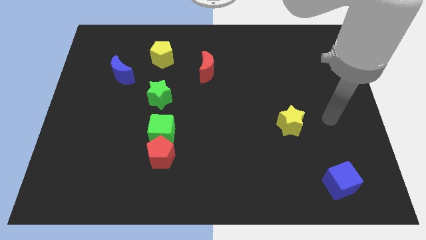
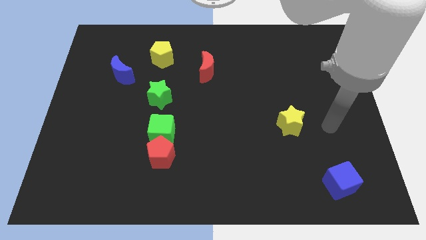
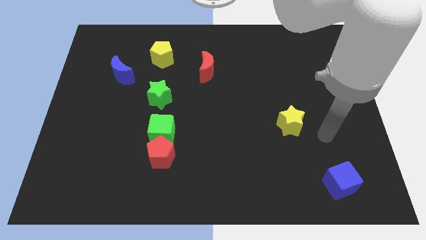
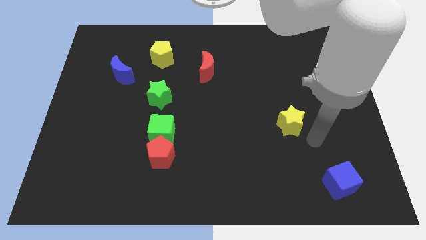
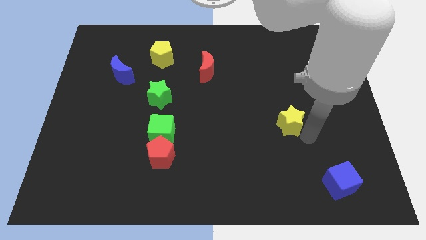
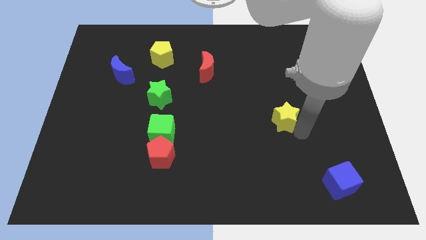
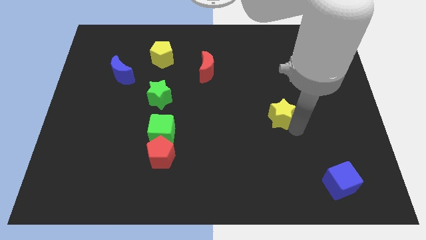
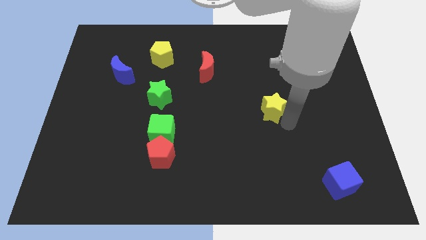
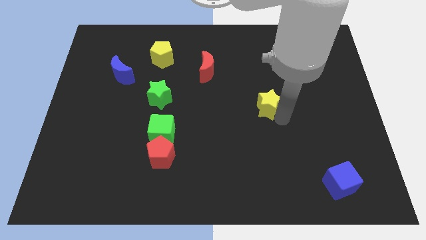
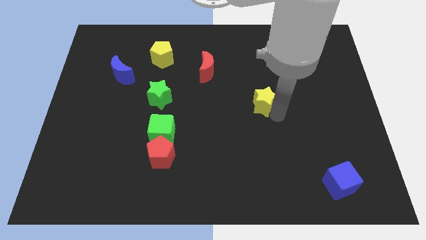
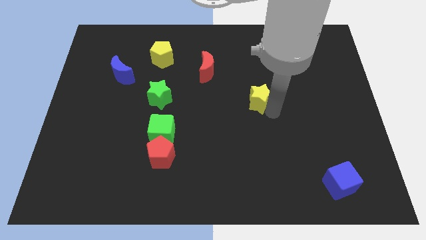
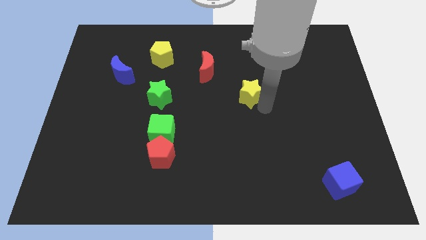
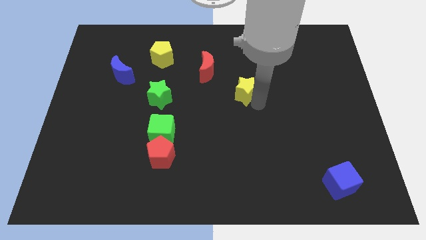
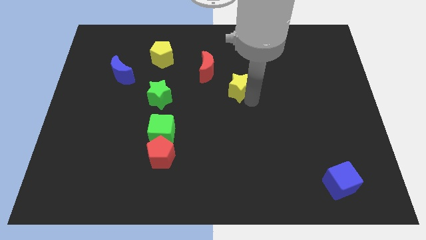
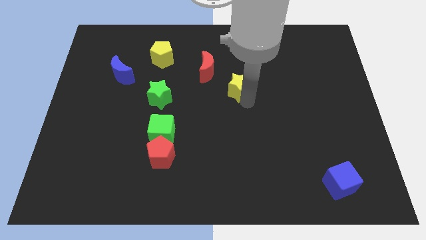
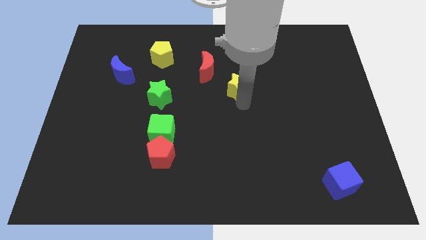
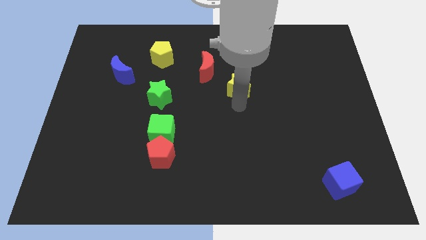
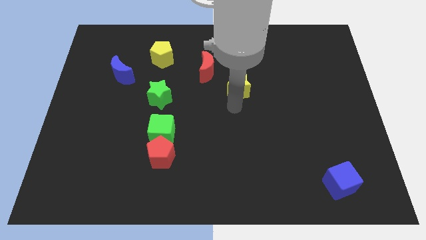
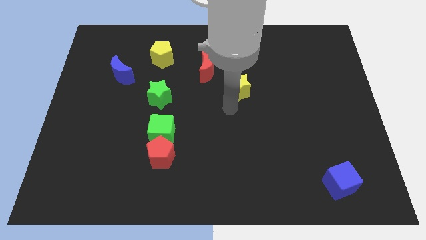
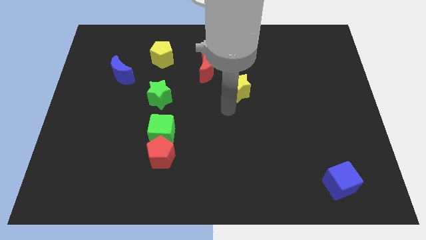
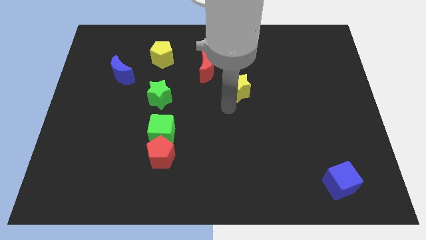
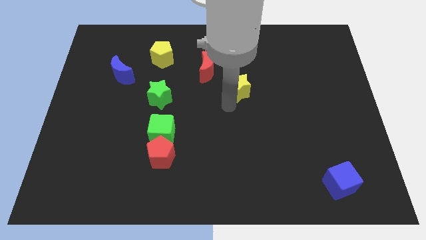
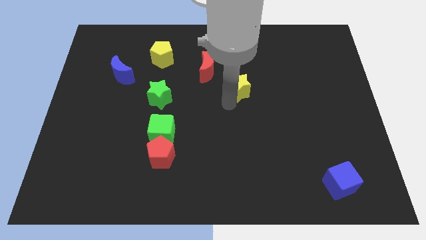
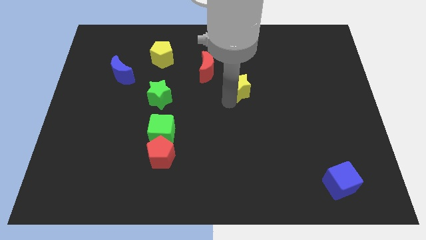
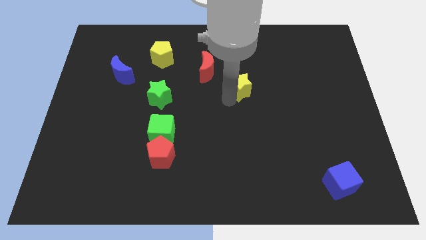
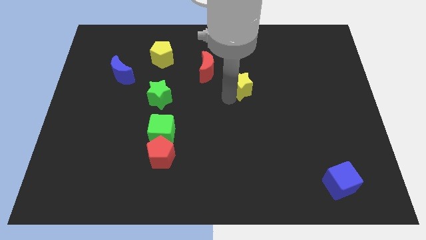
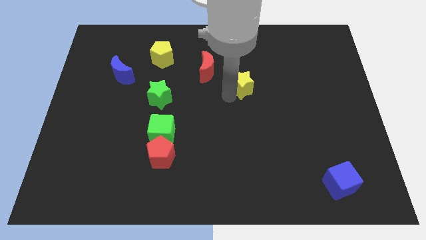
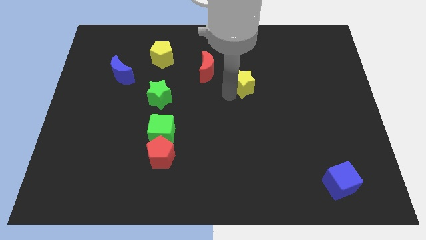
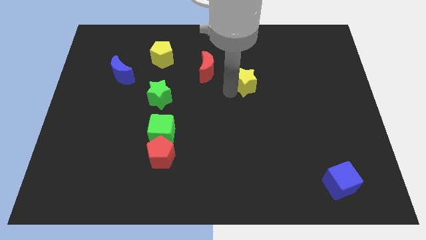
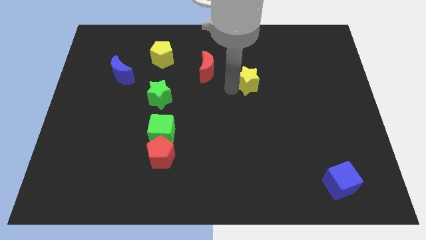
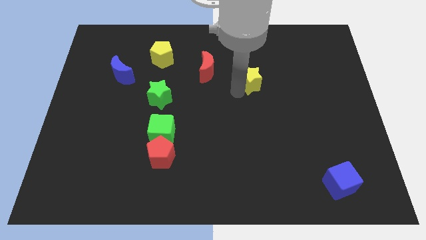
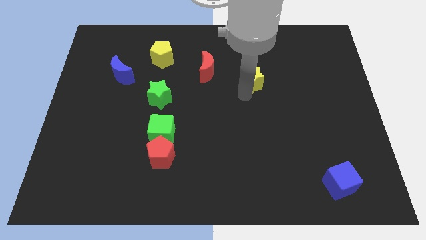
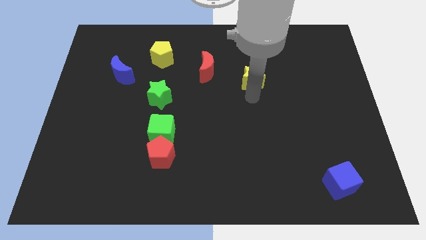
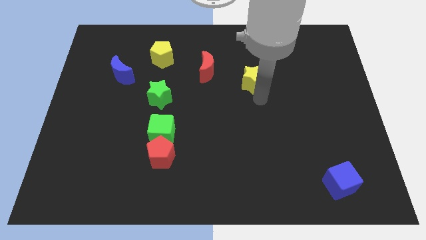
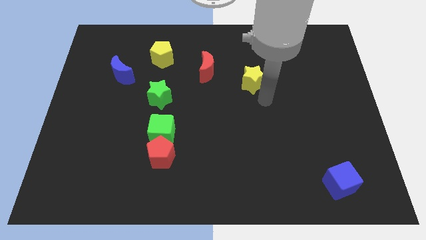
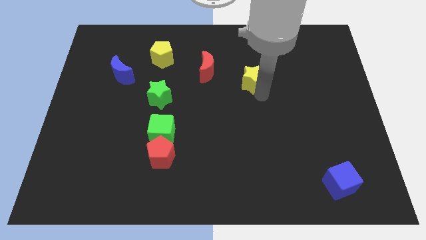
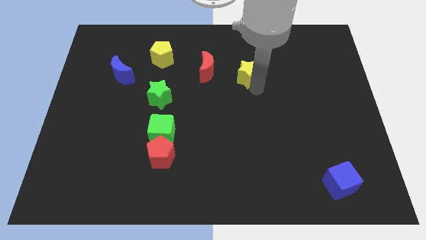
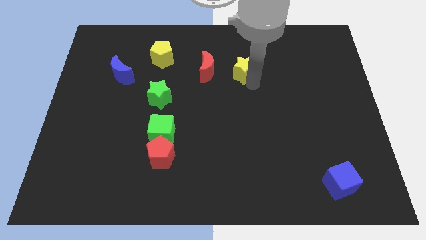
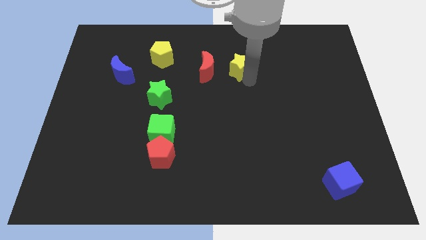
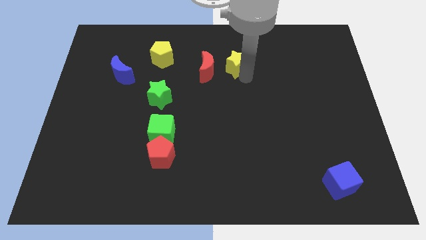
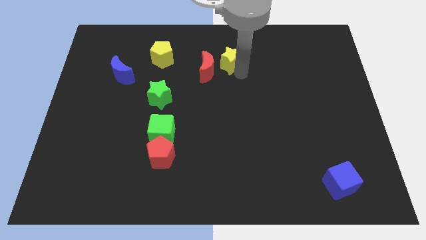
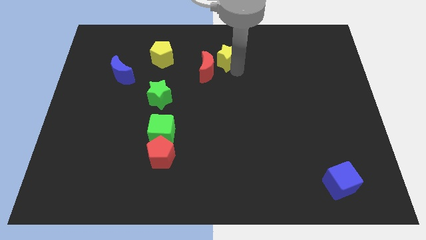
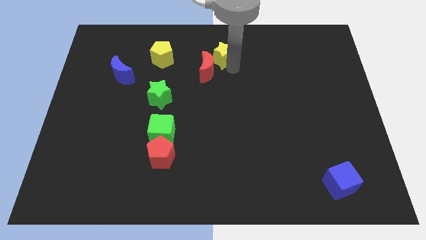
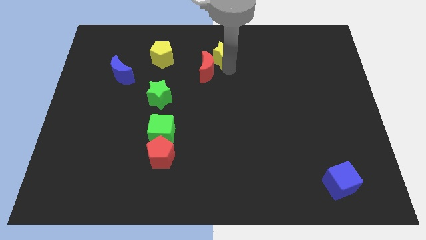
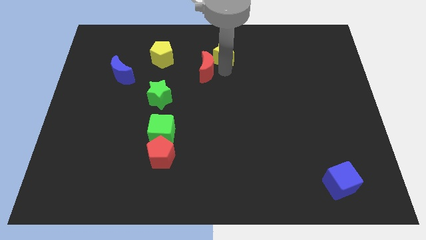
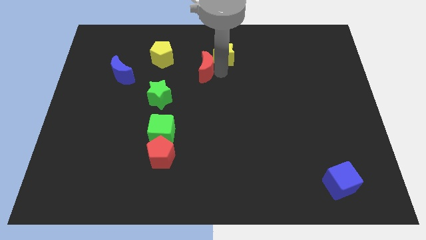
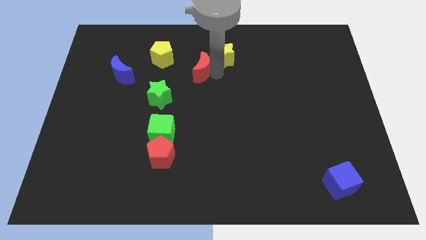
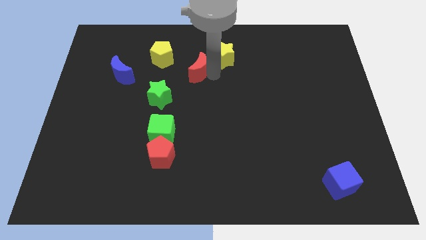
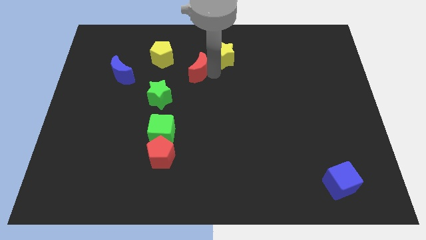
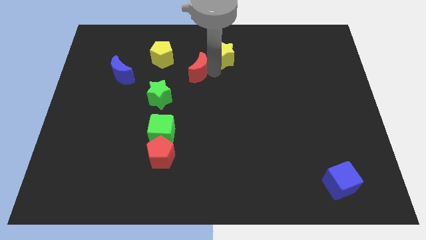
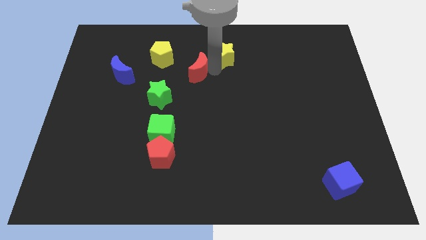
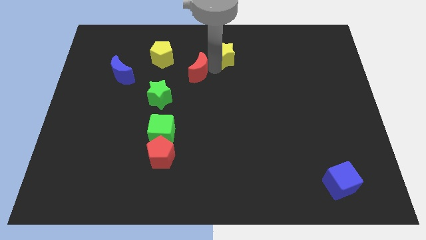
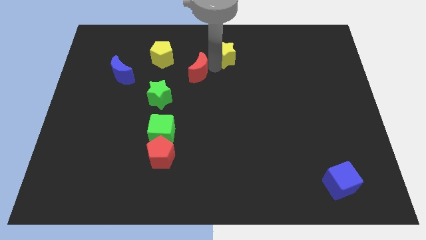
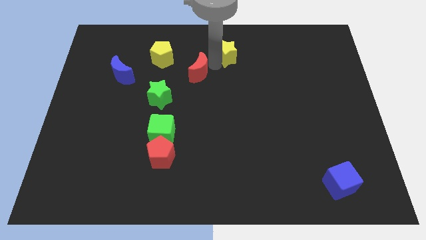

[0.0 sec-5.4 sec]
push the yellow star to the towards your base

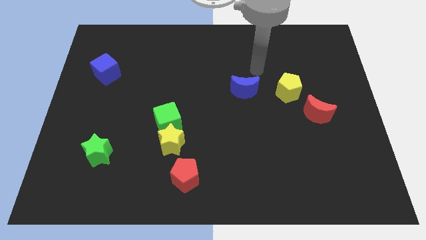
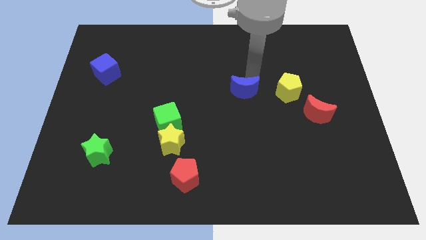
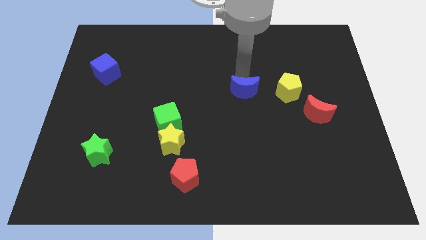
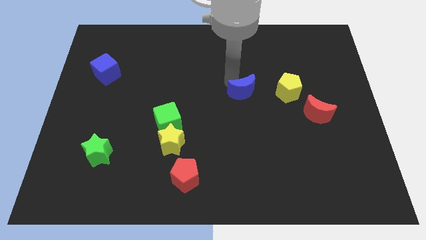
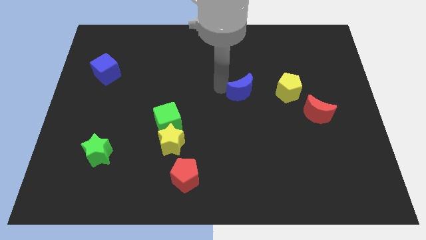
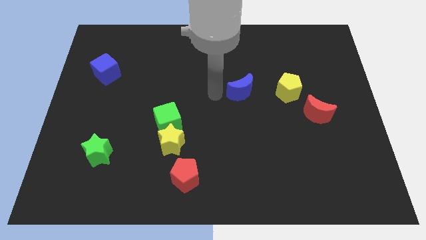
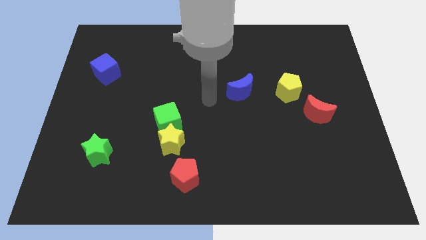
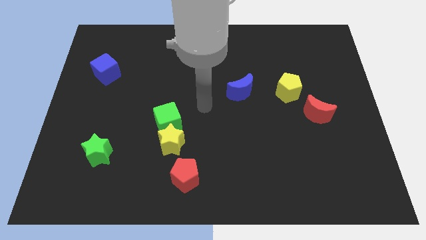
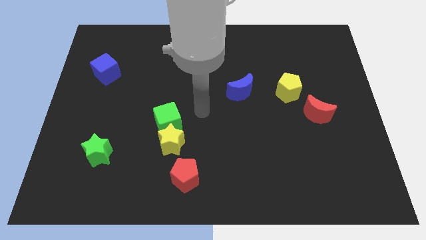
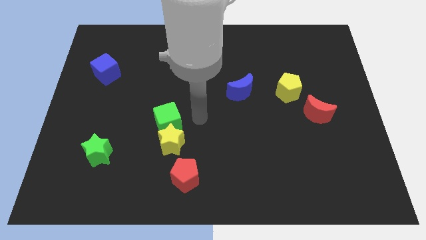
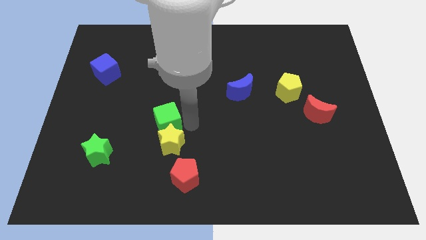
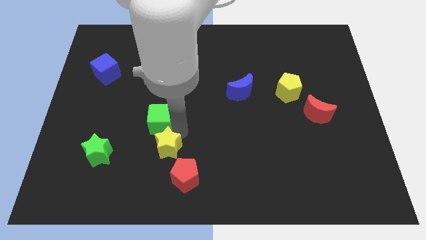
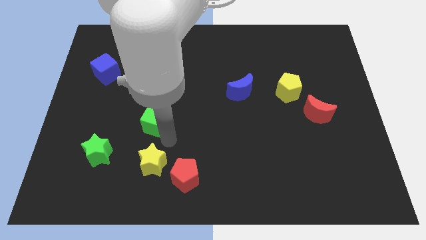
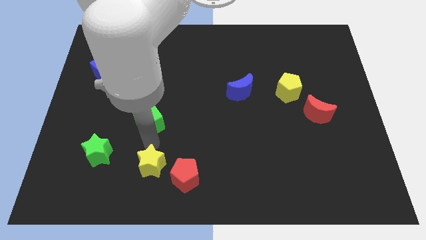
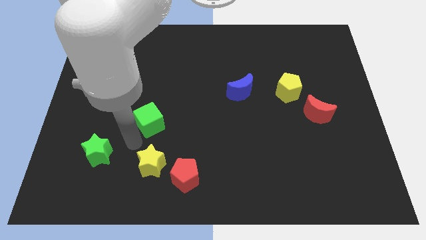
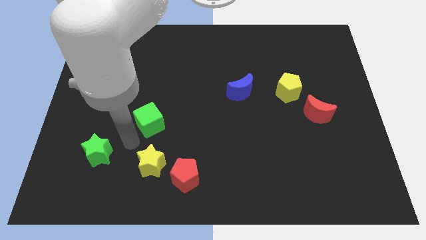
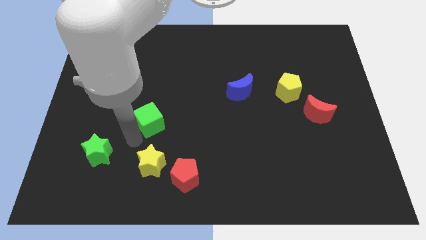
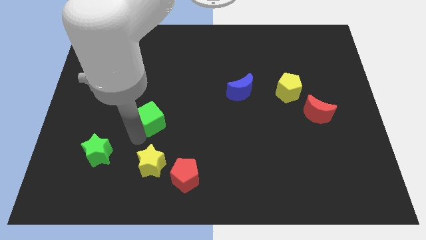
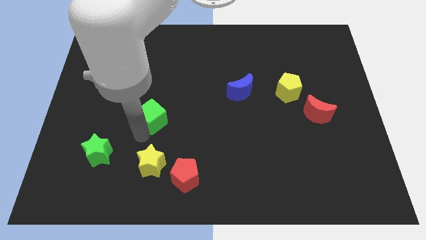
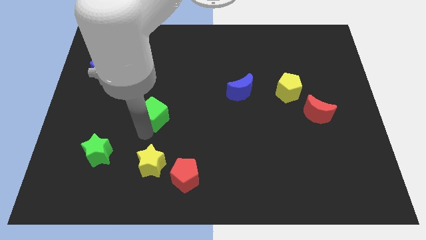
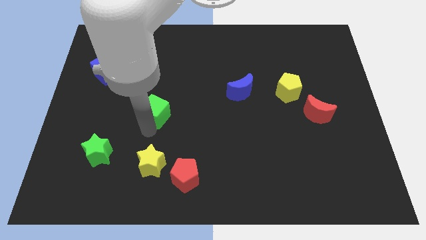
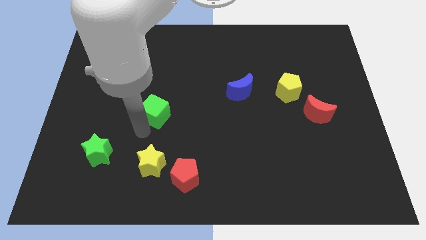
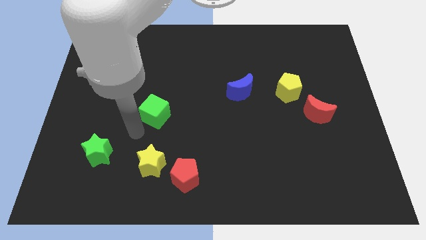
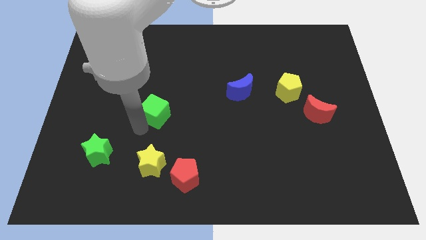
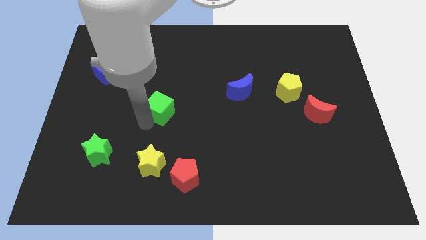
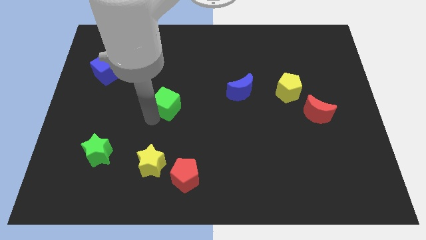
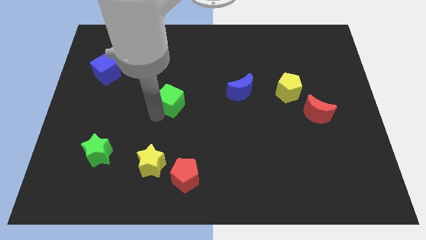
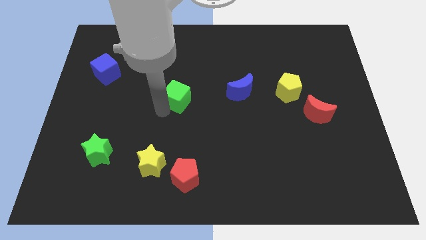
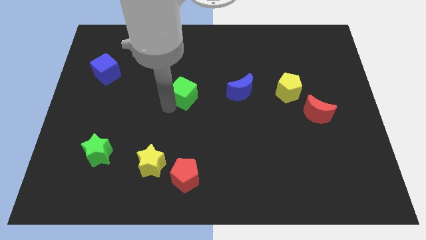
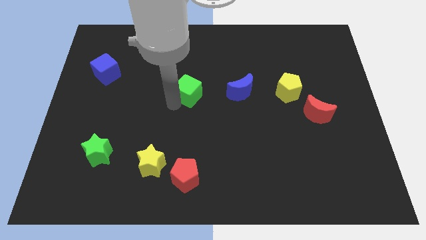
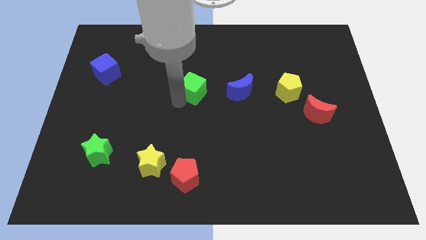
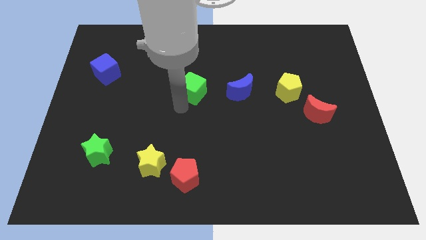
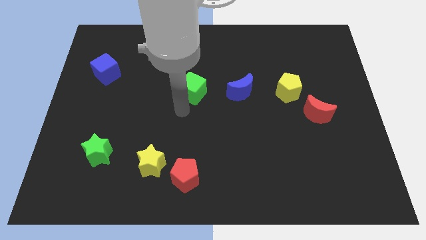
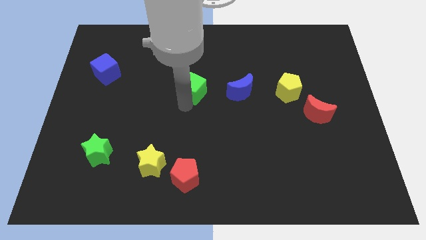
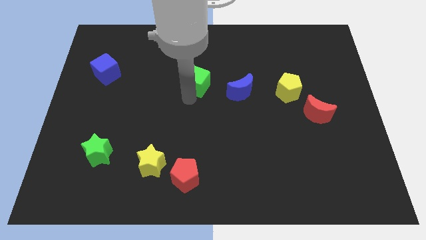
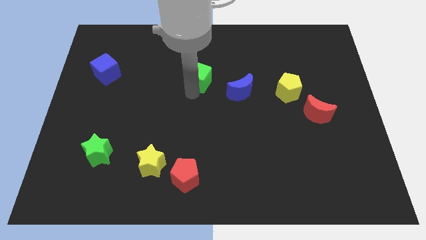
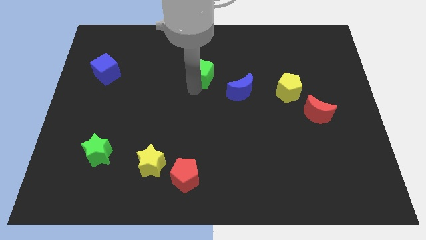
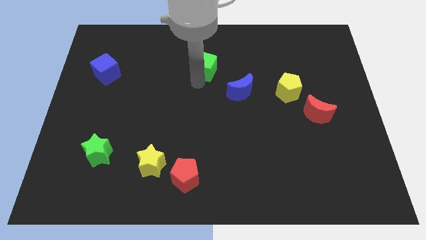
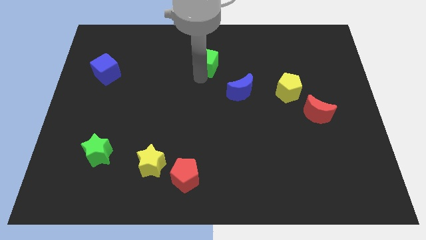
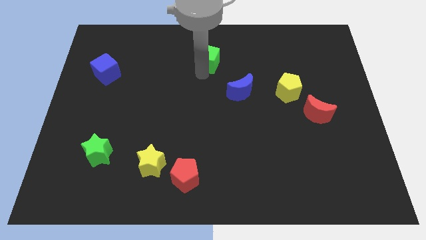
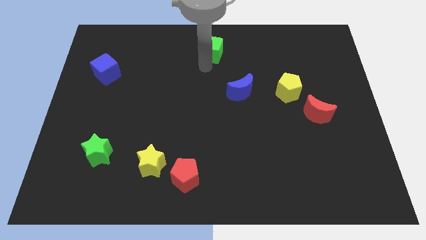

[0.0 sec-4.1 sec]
put the green cube to the towards your base
